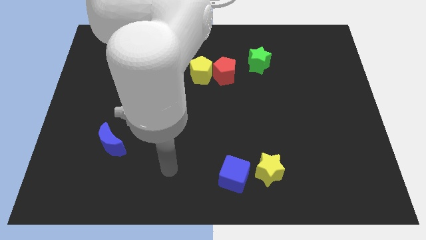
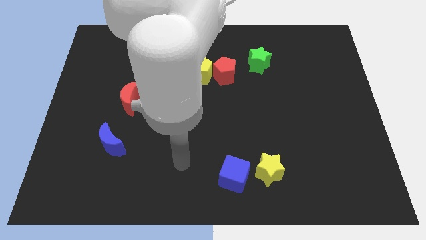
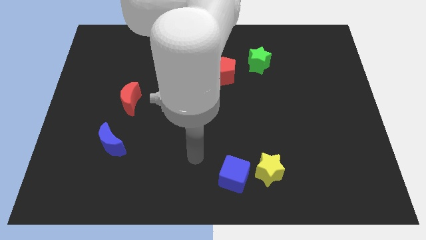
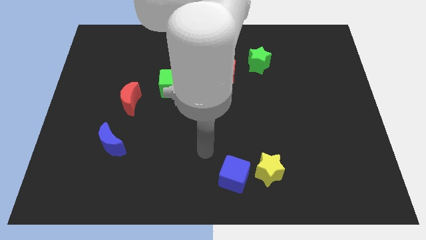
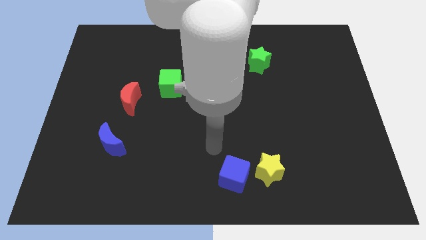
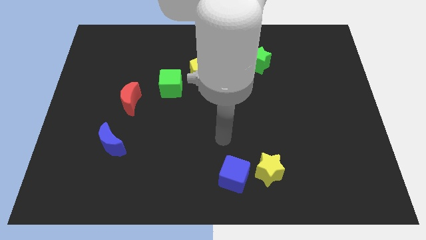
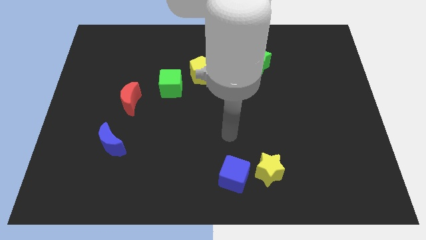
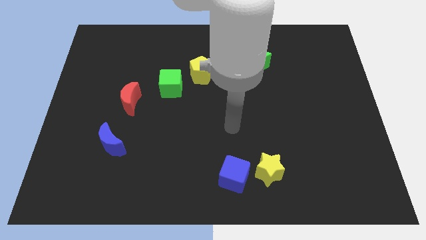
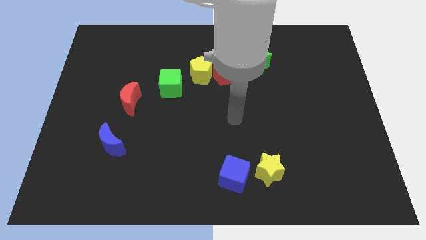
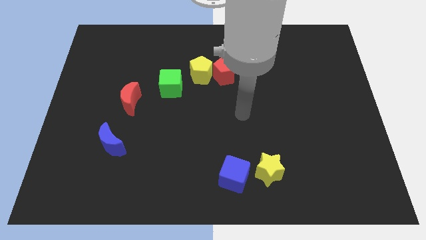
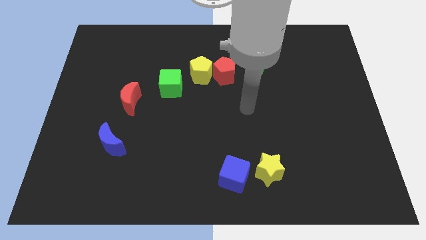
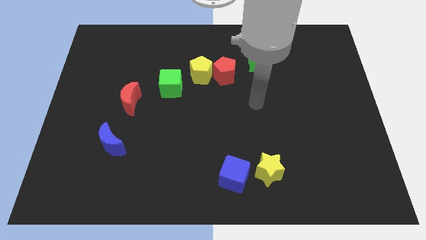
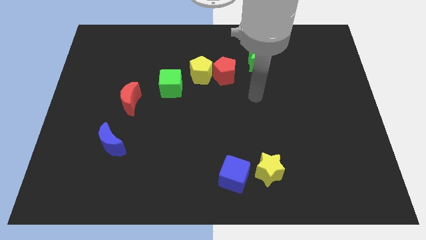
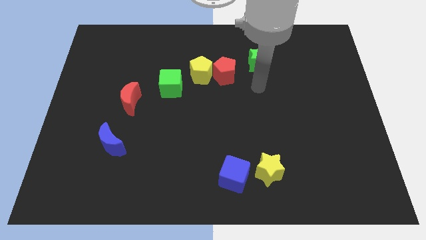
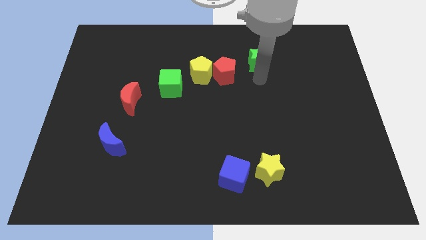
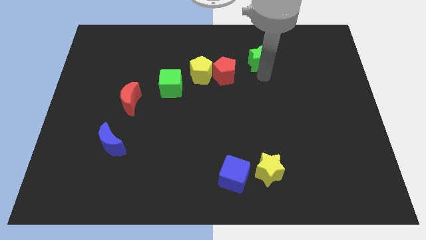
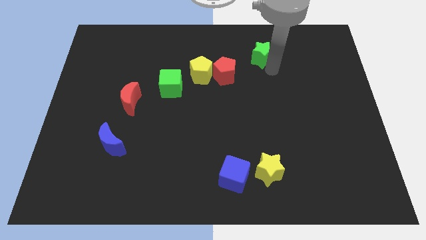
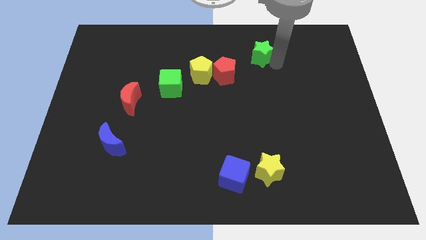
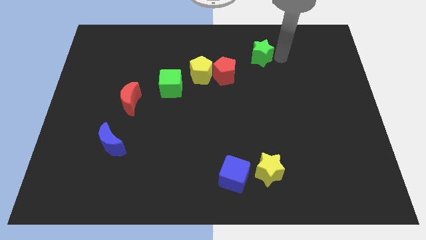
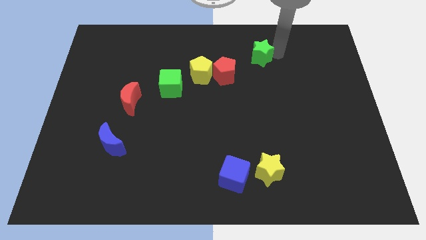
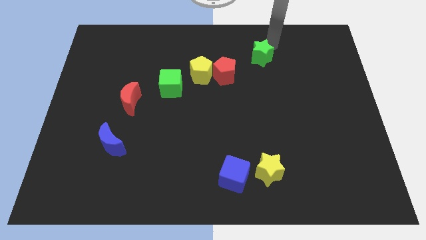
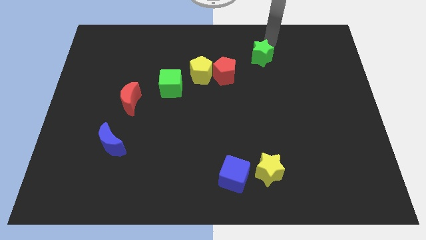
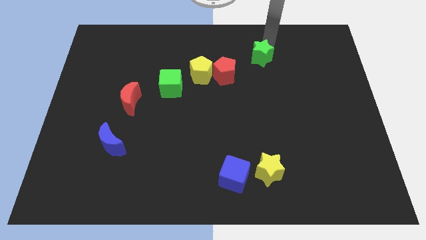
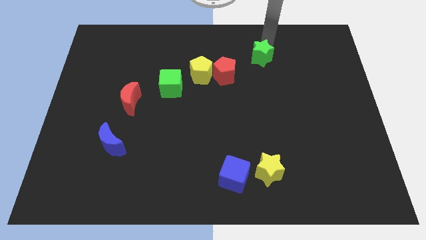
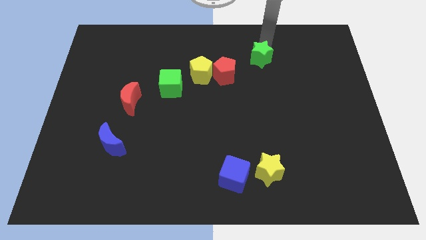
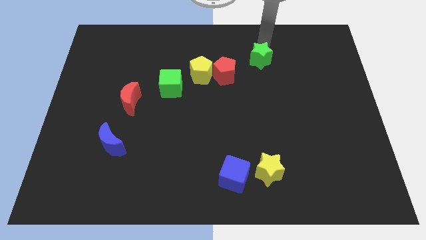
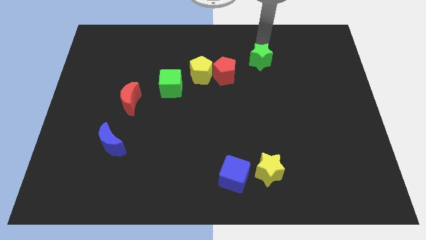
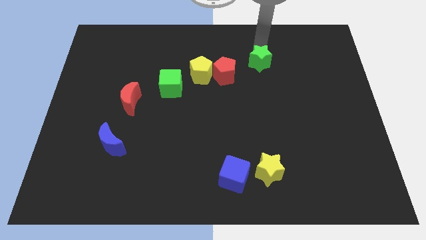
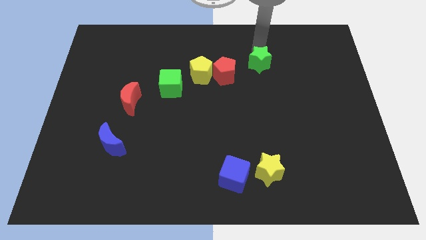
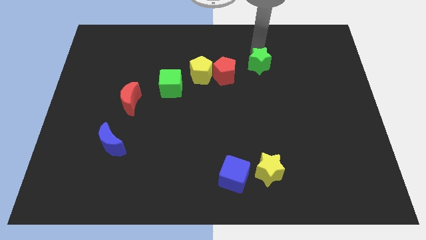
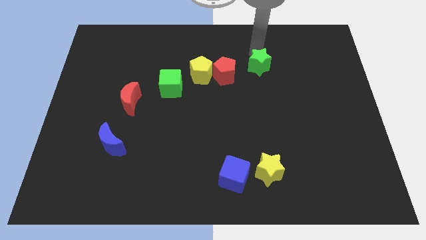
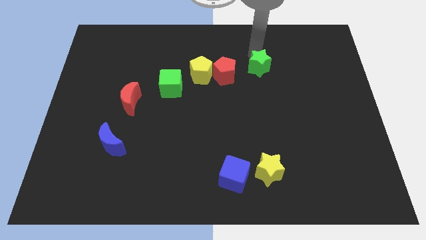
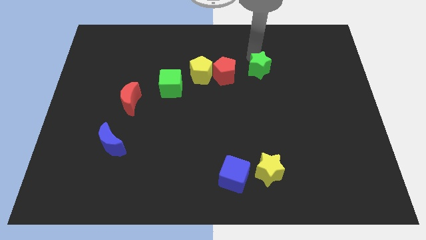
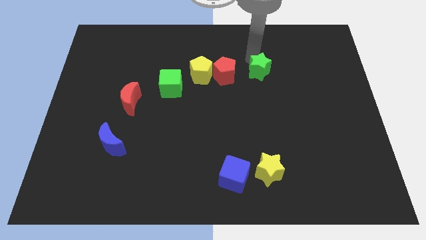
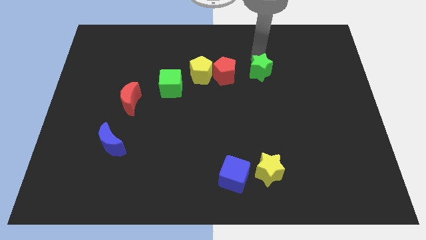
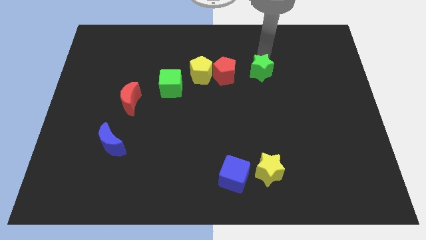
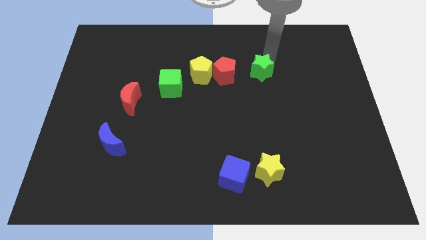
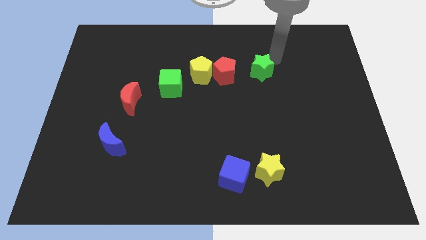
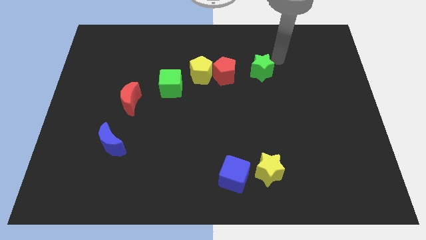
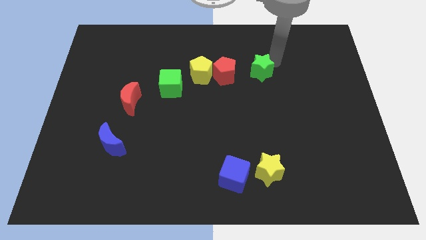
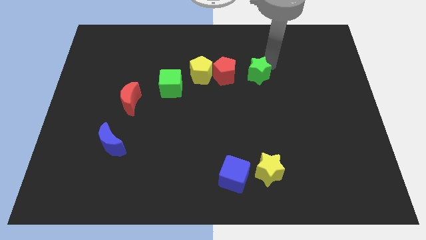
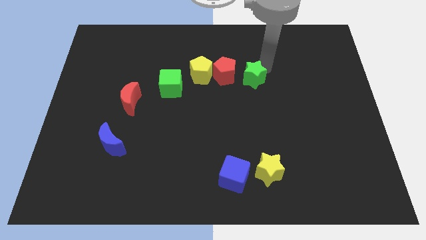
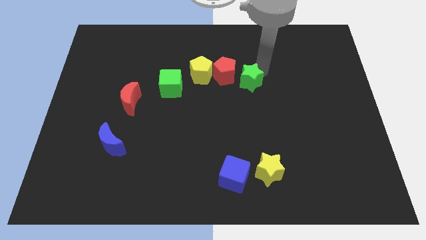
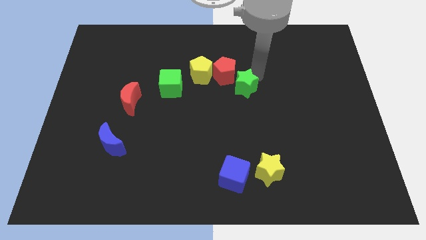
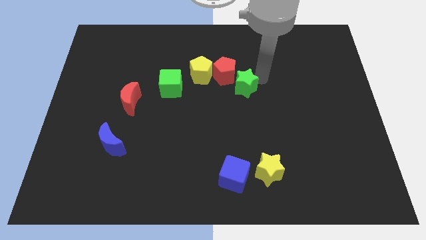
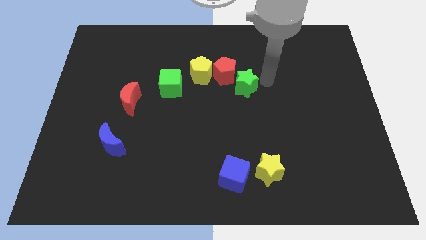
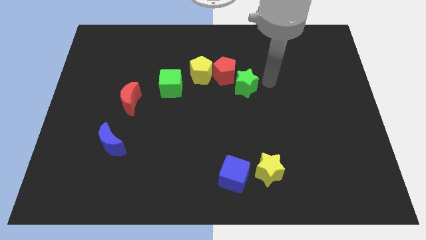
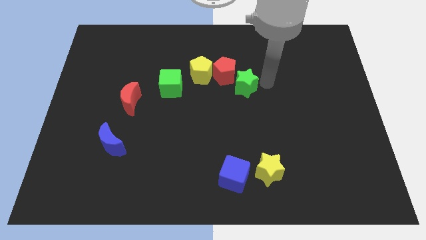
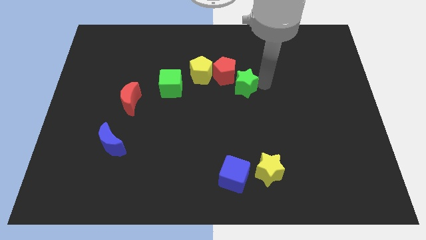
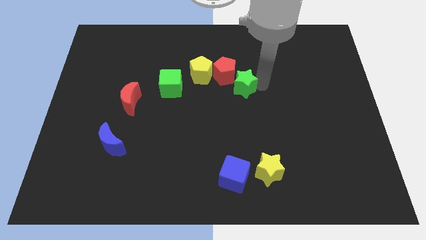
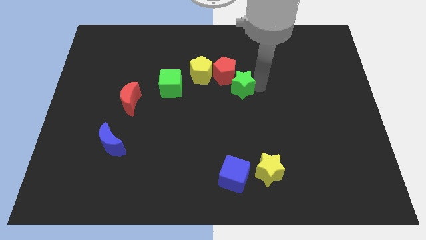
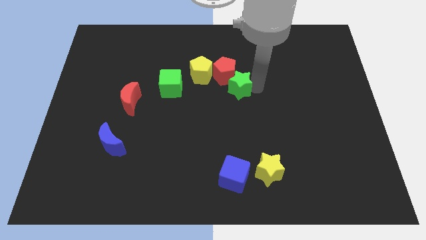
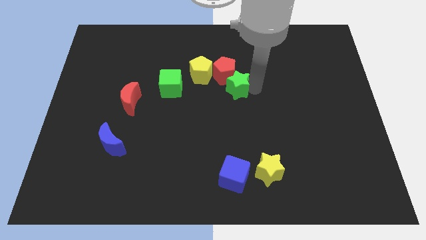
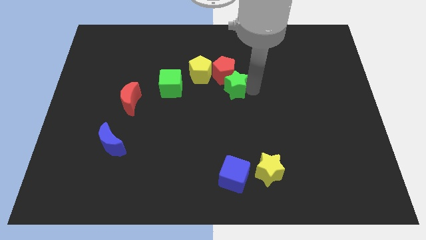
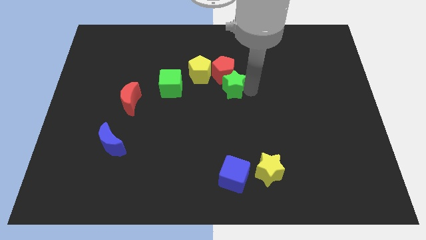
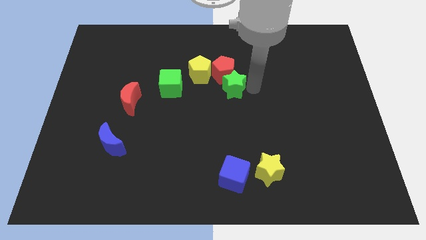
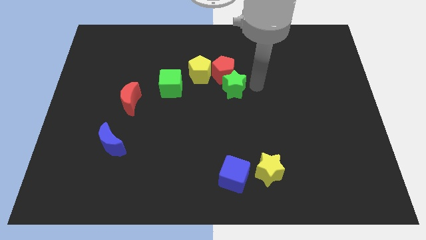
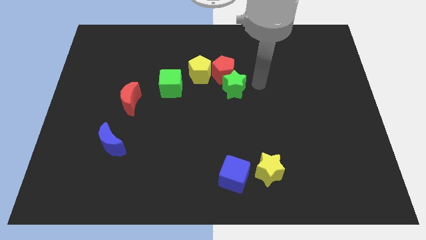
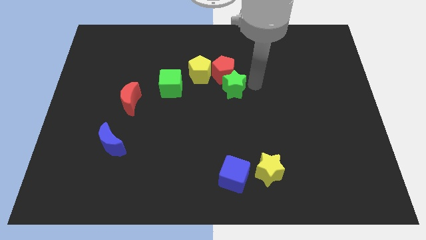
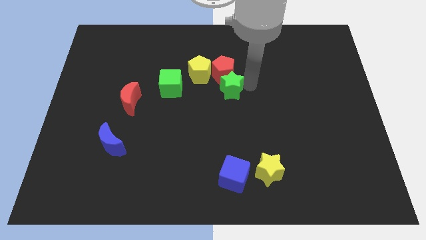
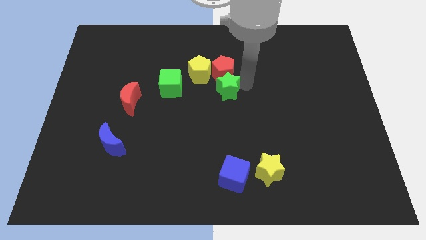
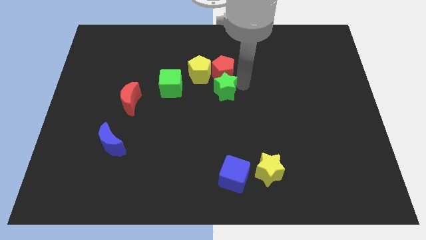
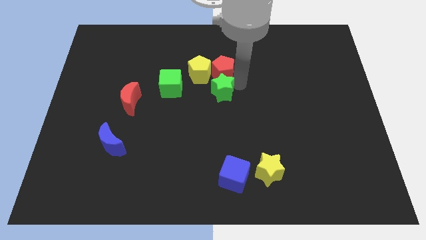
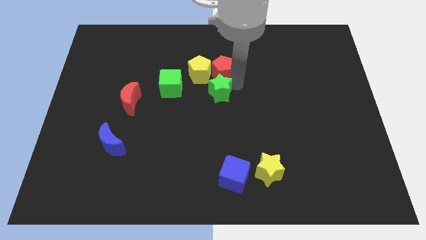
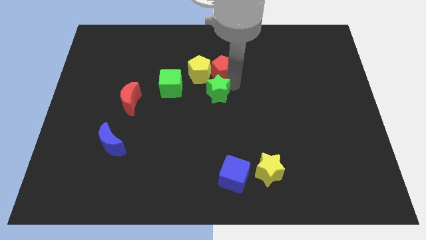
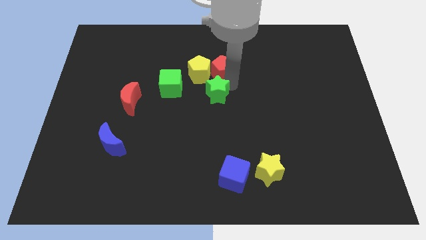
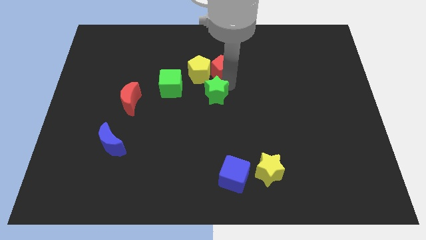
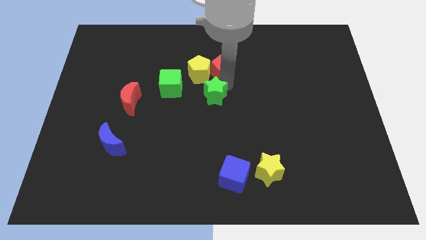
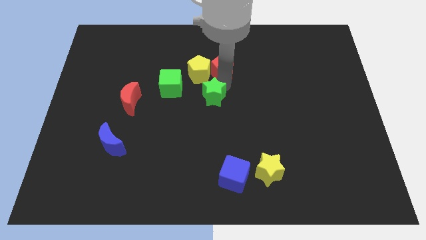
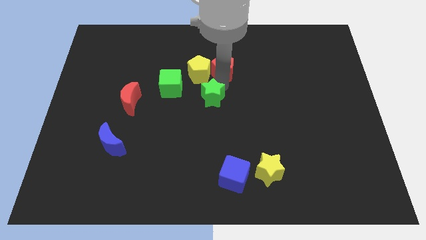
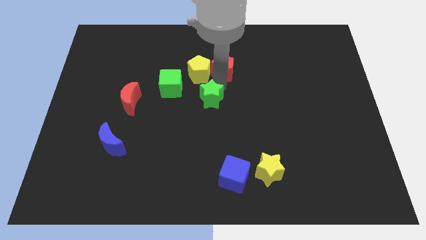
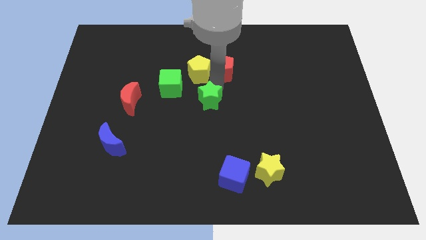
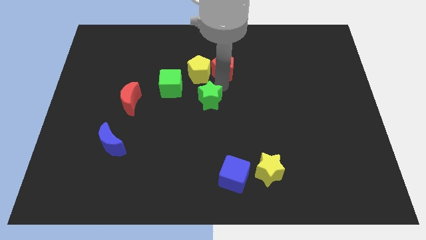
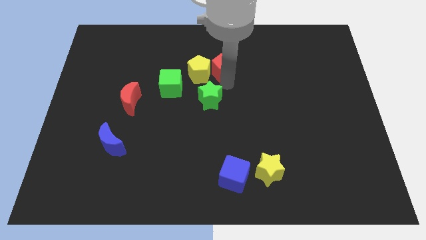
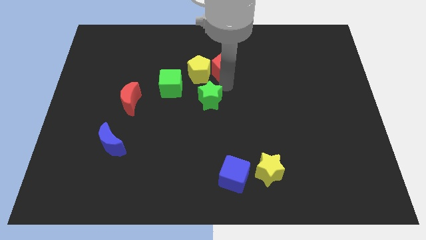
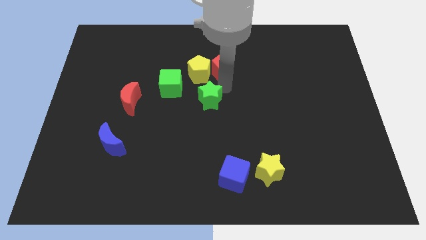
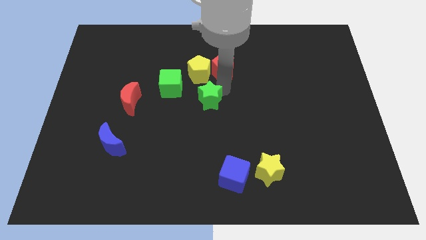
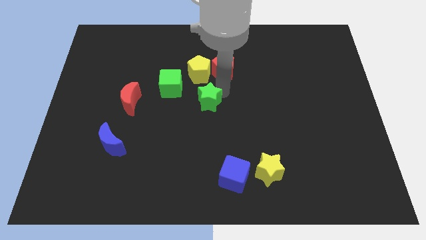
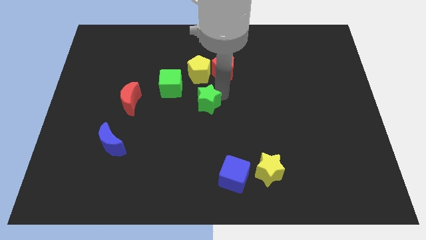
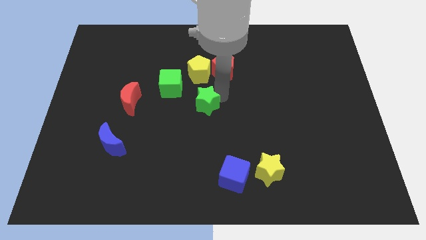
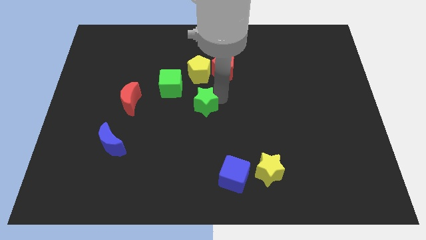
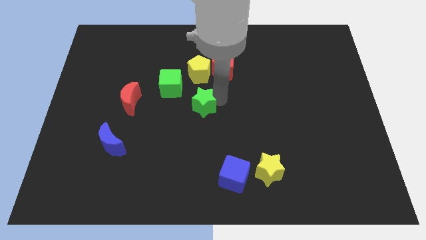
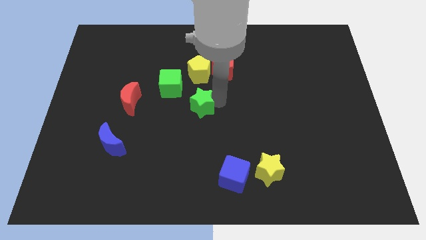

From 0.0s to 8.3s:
push the green star diagonally downwards and left
